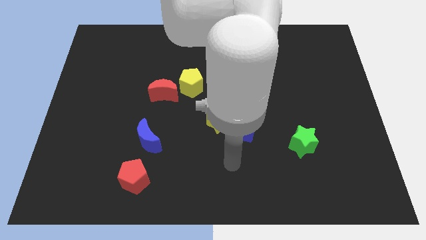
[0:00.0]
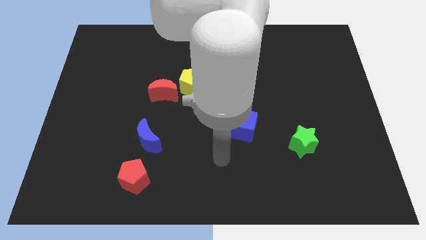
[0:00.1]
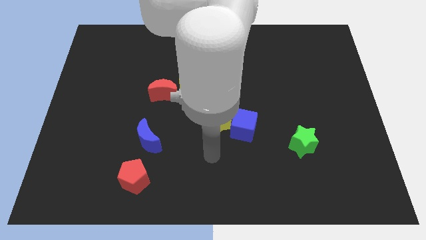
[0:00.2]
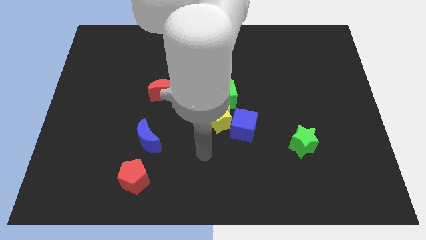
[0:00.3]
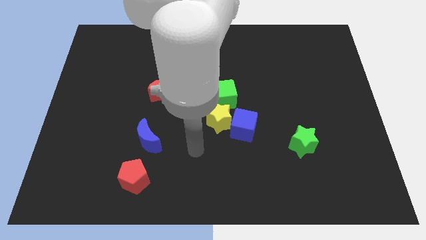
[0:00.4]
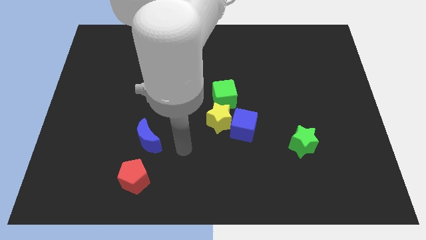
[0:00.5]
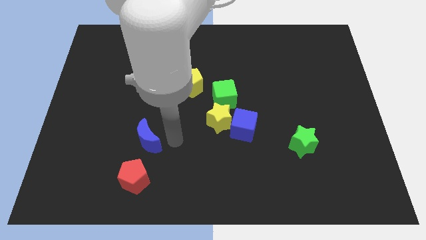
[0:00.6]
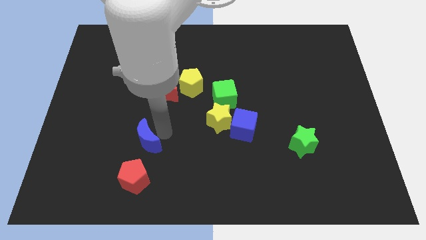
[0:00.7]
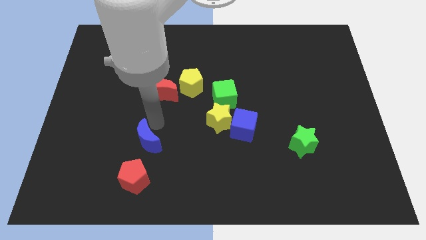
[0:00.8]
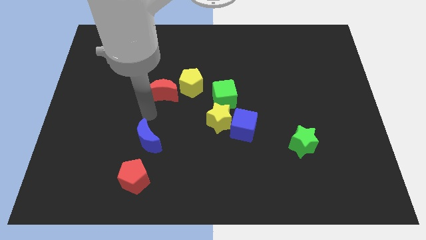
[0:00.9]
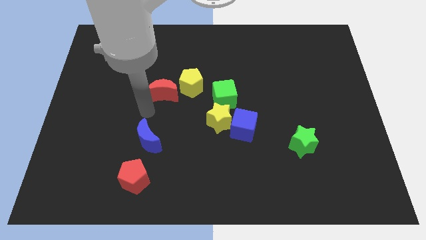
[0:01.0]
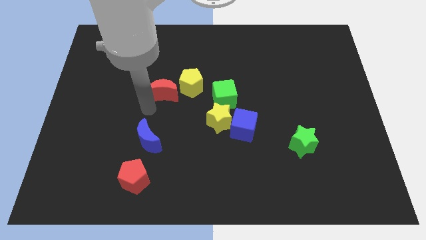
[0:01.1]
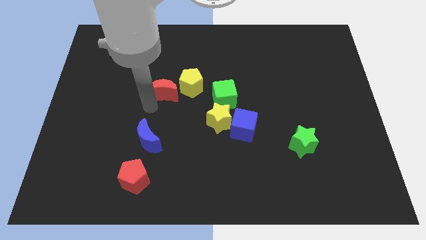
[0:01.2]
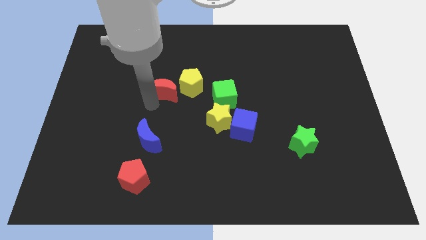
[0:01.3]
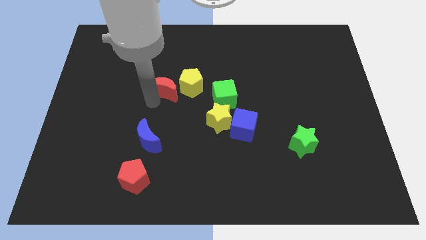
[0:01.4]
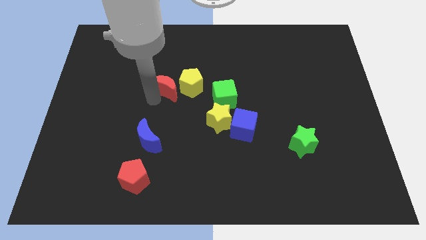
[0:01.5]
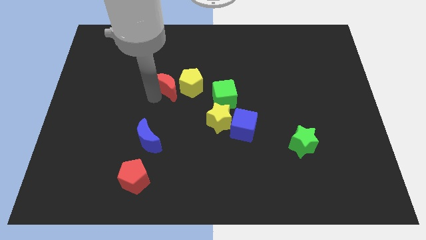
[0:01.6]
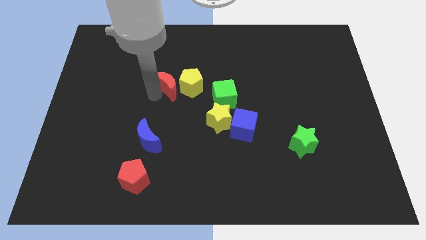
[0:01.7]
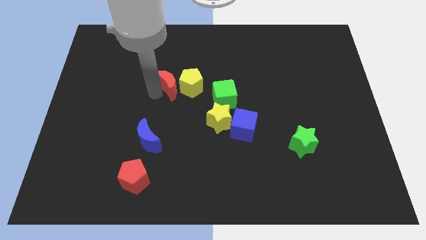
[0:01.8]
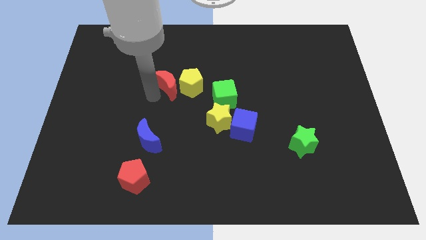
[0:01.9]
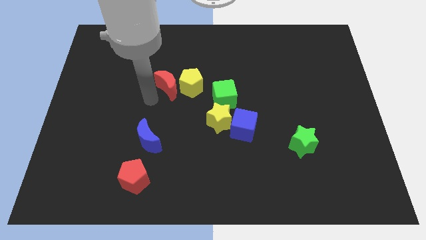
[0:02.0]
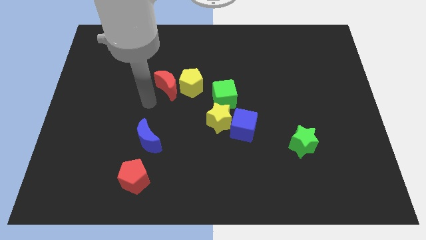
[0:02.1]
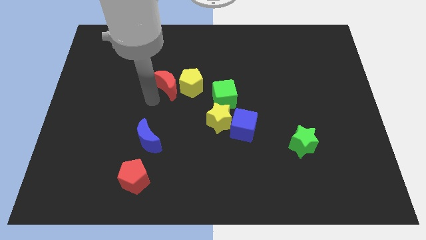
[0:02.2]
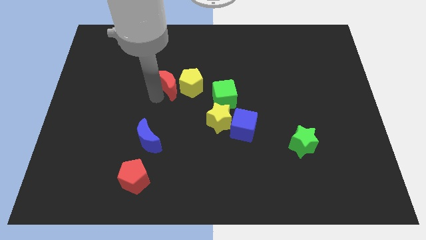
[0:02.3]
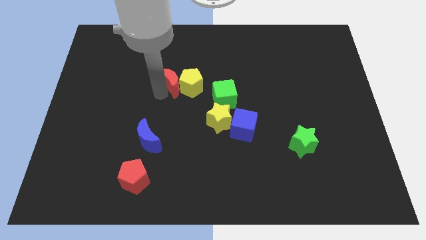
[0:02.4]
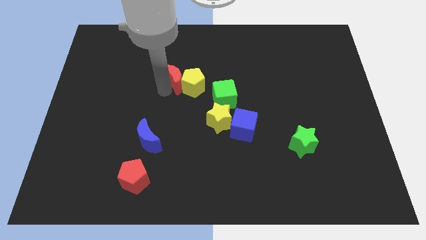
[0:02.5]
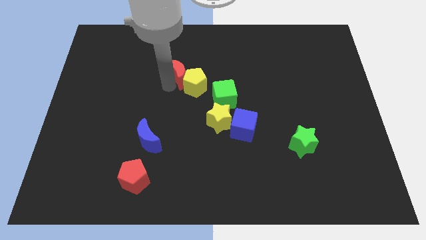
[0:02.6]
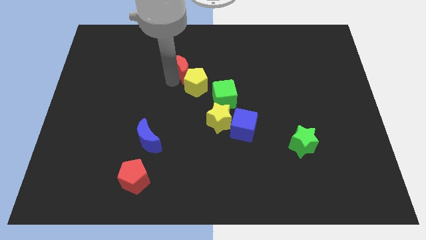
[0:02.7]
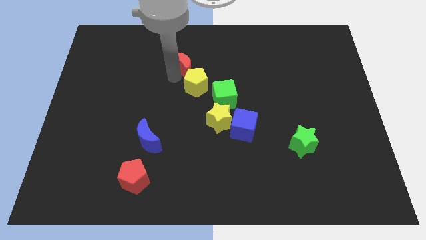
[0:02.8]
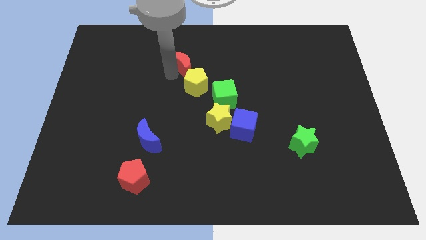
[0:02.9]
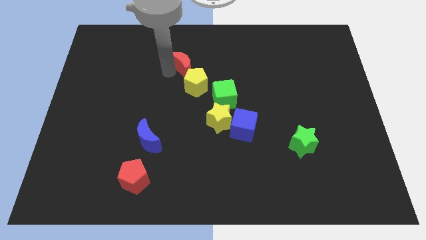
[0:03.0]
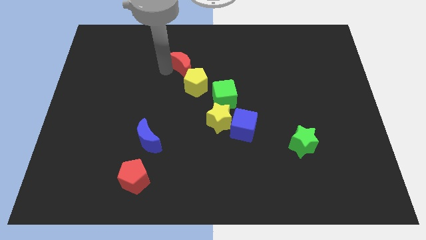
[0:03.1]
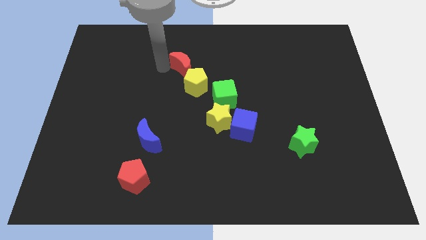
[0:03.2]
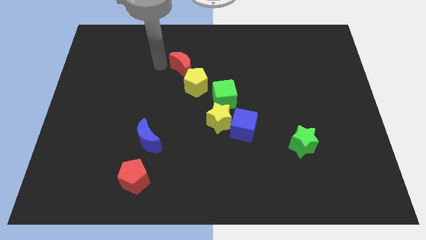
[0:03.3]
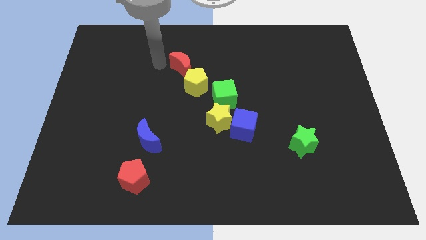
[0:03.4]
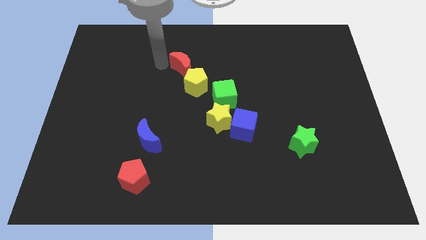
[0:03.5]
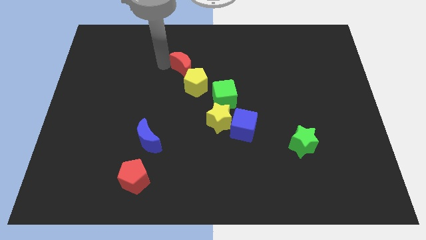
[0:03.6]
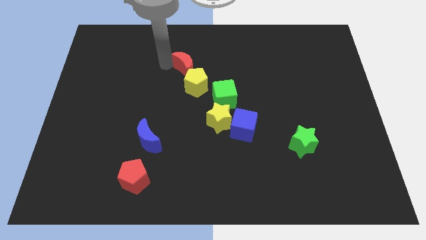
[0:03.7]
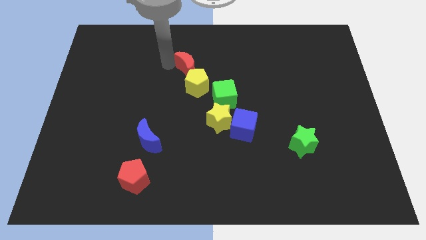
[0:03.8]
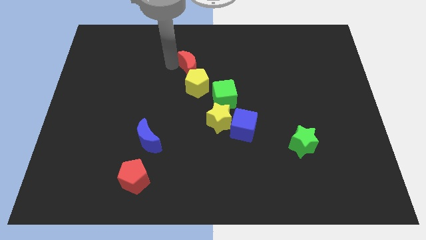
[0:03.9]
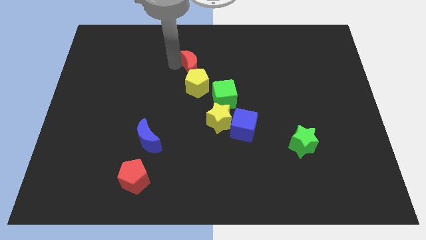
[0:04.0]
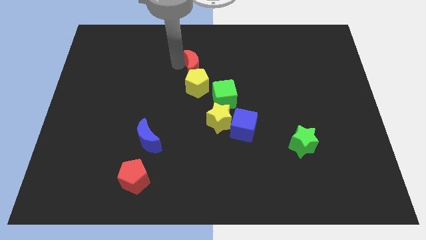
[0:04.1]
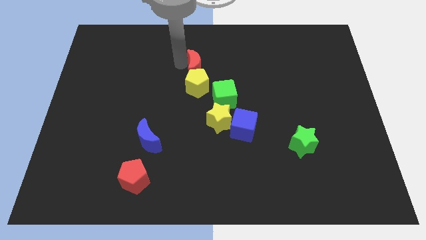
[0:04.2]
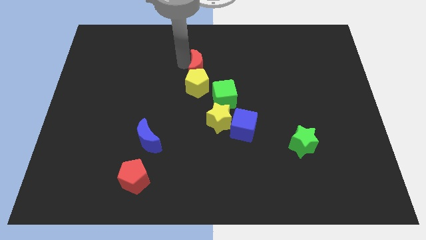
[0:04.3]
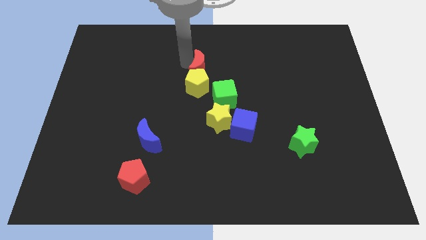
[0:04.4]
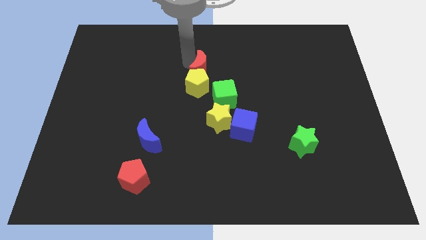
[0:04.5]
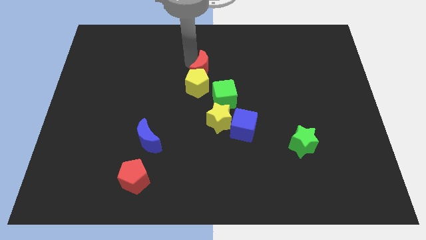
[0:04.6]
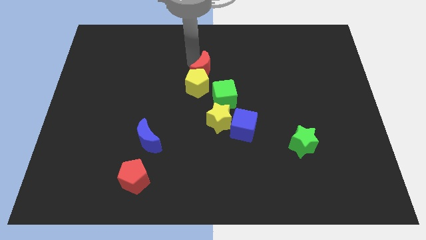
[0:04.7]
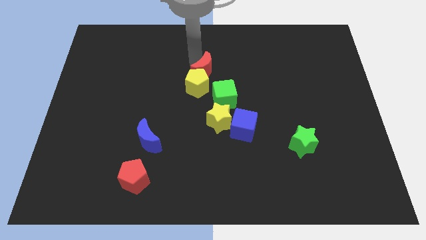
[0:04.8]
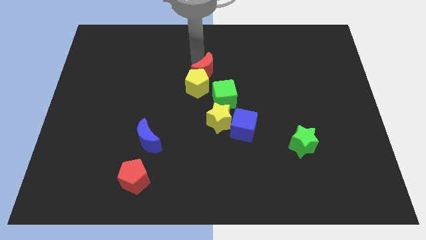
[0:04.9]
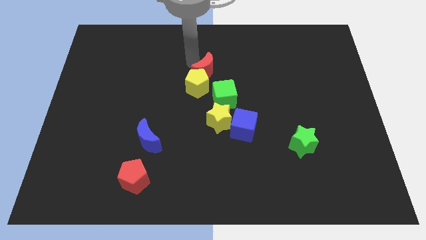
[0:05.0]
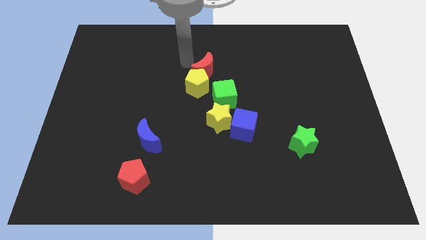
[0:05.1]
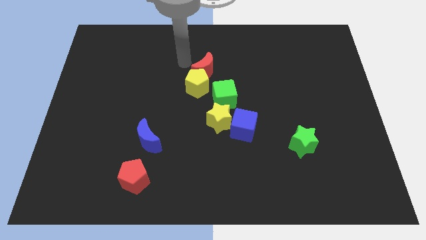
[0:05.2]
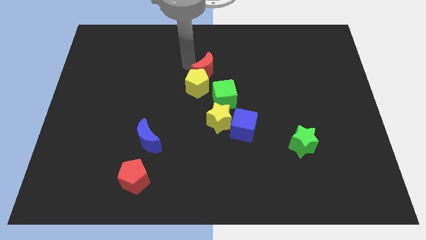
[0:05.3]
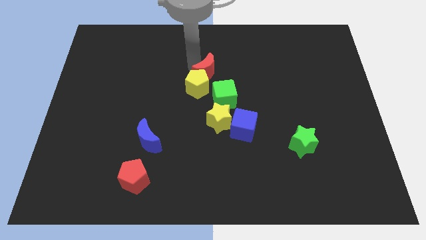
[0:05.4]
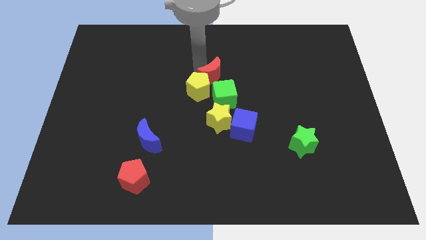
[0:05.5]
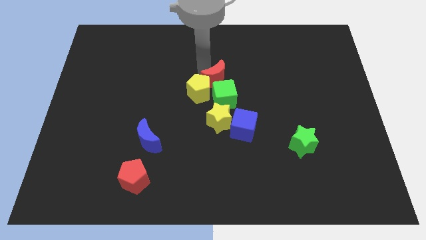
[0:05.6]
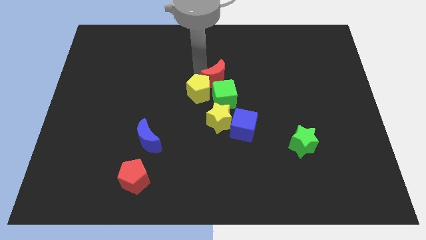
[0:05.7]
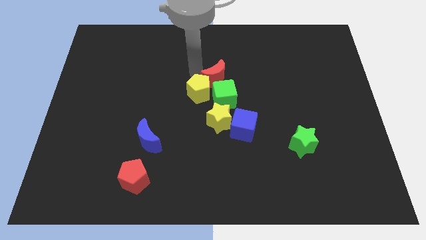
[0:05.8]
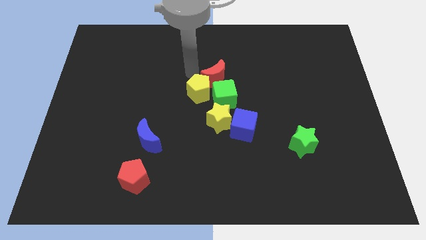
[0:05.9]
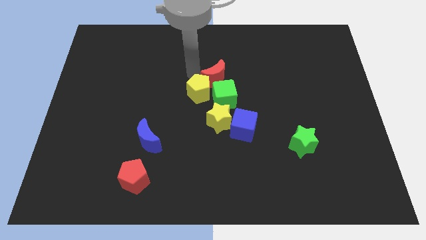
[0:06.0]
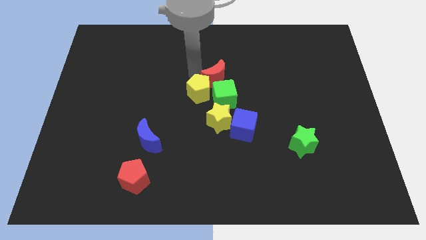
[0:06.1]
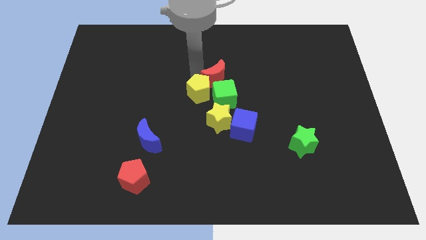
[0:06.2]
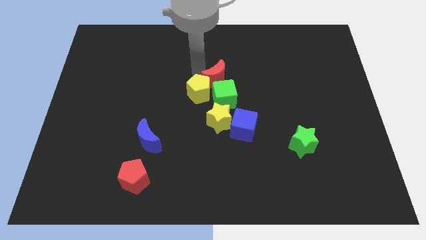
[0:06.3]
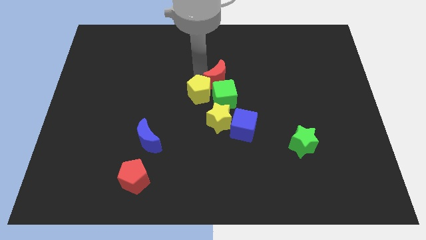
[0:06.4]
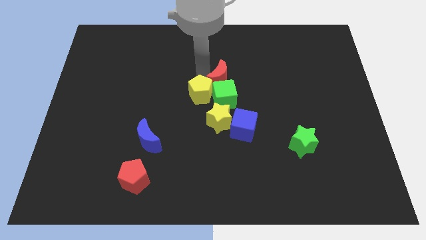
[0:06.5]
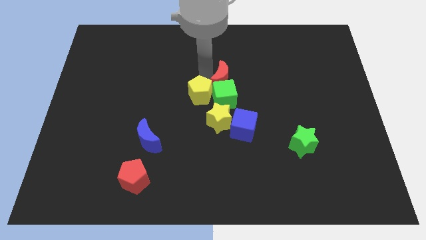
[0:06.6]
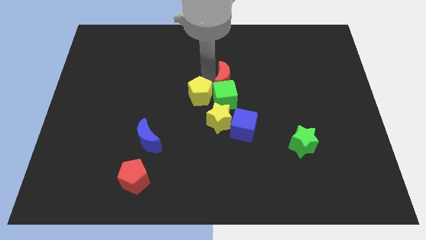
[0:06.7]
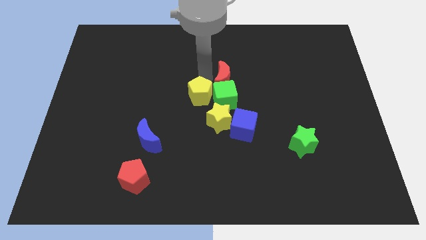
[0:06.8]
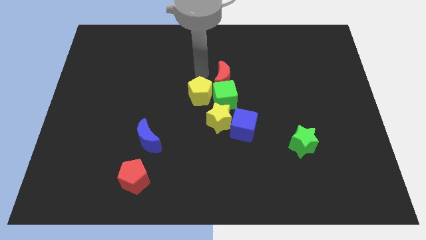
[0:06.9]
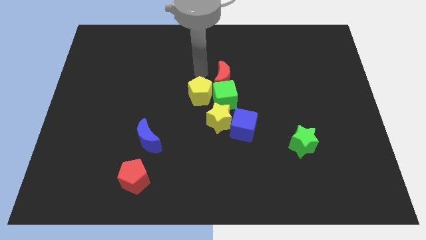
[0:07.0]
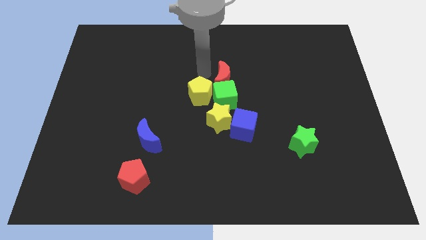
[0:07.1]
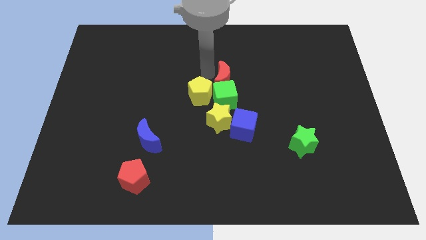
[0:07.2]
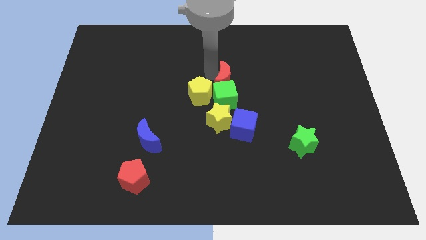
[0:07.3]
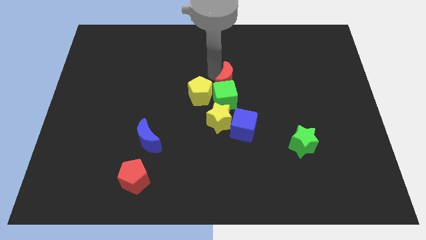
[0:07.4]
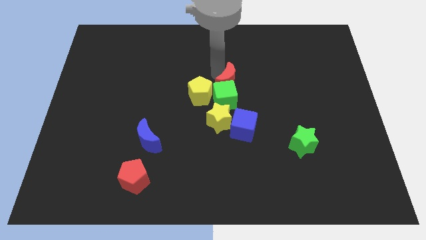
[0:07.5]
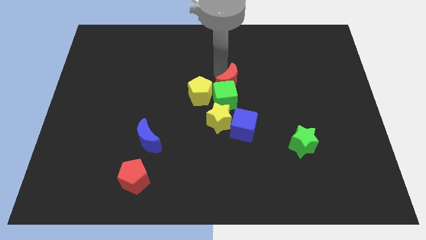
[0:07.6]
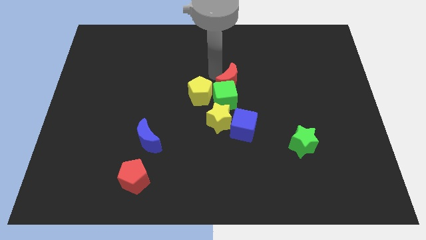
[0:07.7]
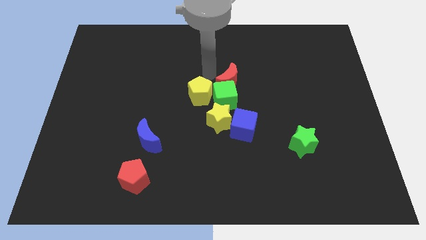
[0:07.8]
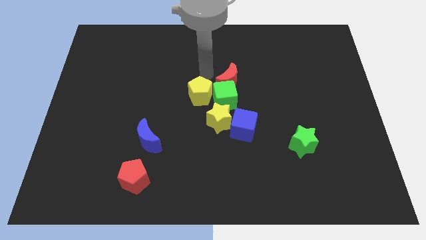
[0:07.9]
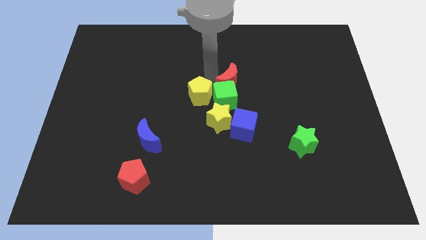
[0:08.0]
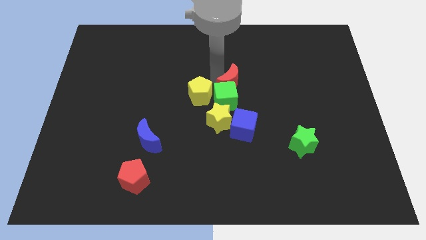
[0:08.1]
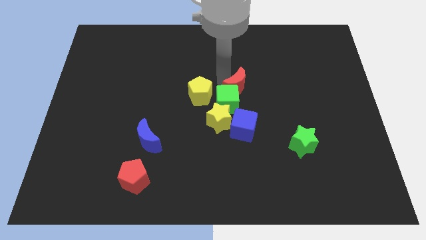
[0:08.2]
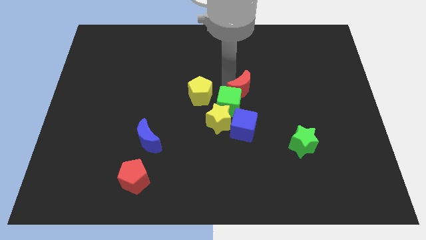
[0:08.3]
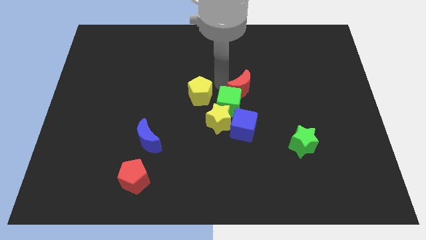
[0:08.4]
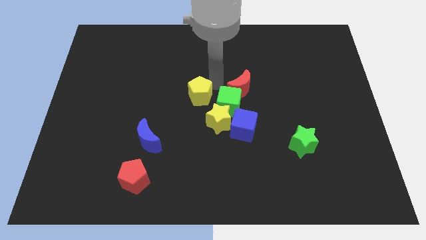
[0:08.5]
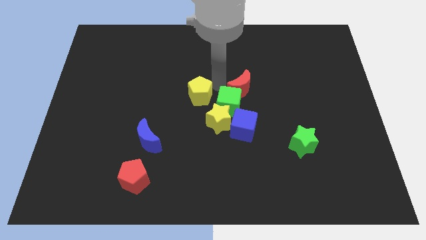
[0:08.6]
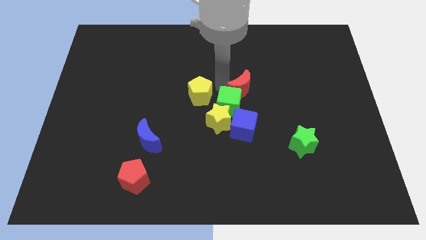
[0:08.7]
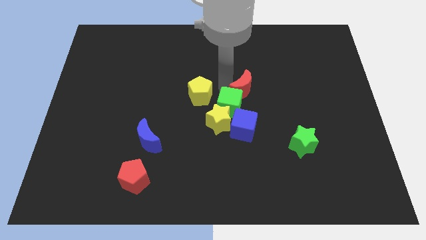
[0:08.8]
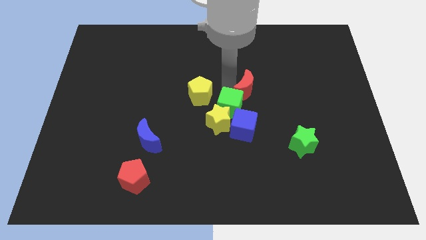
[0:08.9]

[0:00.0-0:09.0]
slide the red moon right
